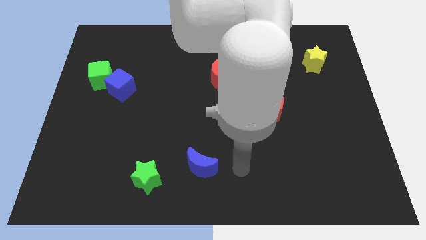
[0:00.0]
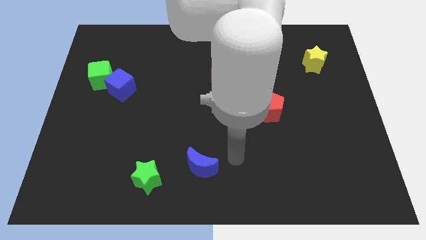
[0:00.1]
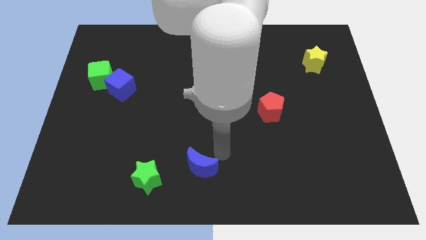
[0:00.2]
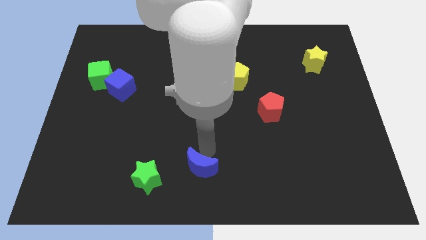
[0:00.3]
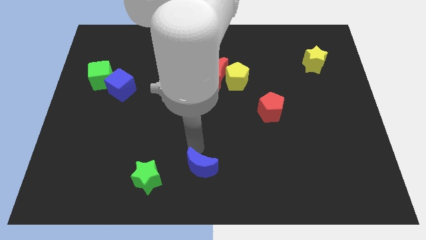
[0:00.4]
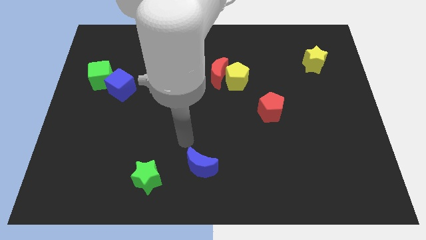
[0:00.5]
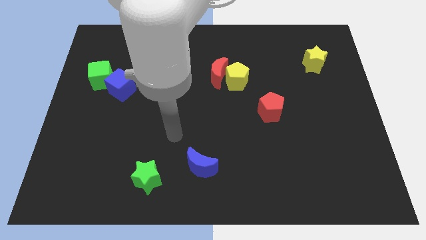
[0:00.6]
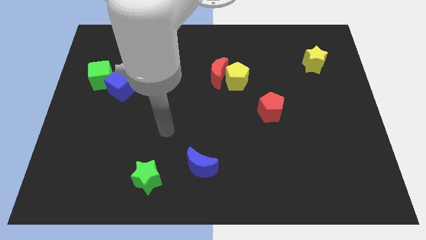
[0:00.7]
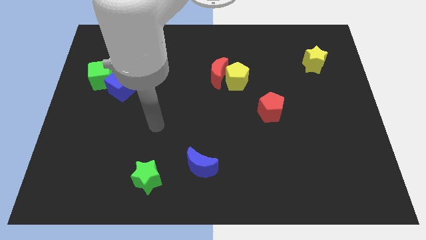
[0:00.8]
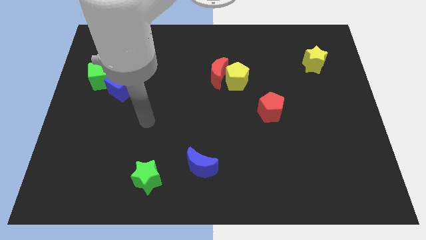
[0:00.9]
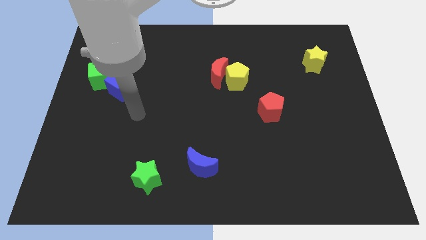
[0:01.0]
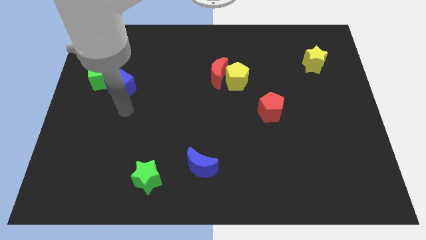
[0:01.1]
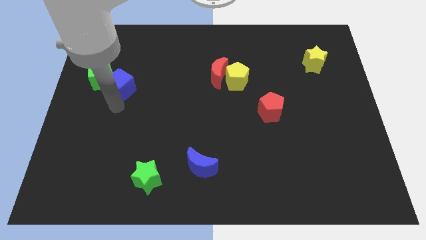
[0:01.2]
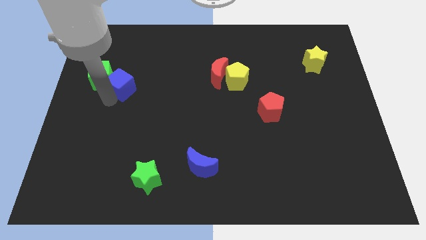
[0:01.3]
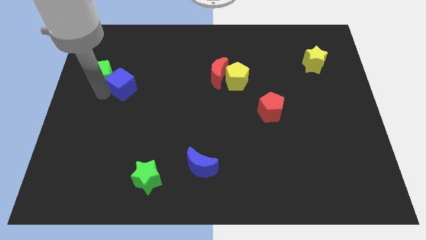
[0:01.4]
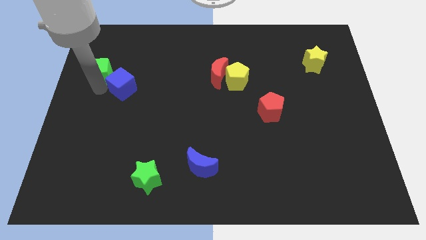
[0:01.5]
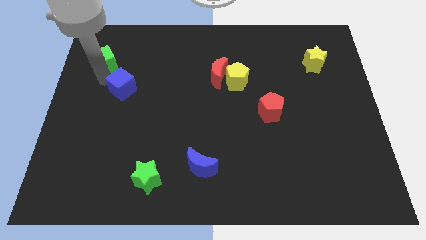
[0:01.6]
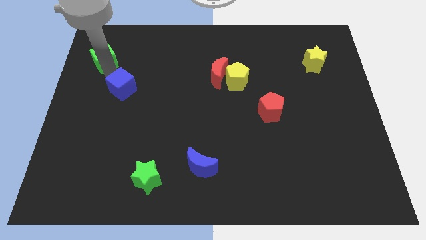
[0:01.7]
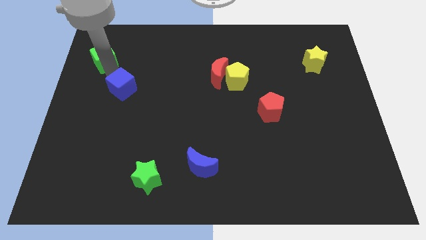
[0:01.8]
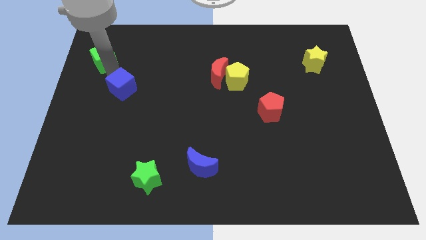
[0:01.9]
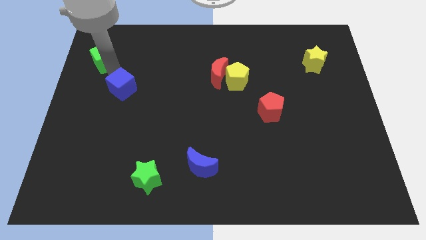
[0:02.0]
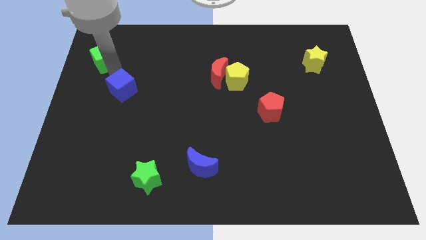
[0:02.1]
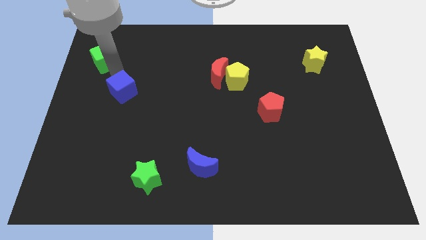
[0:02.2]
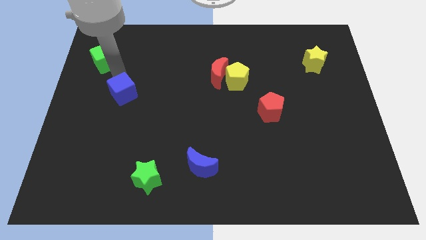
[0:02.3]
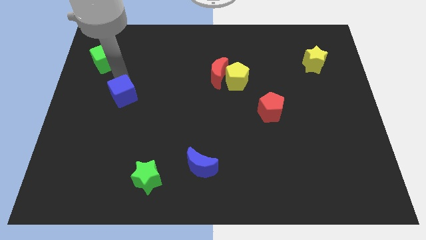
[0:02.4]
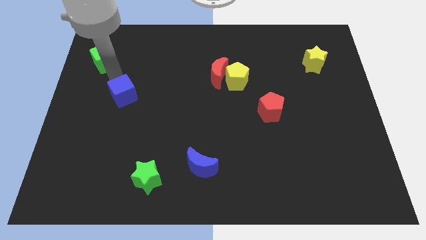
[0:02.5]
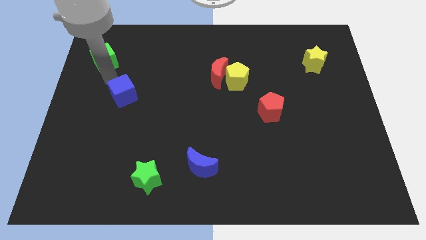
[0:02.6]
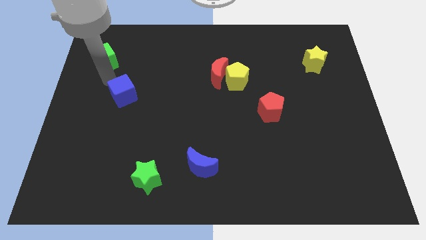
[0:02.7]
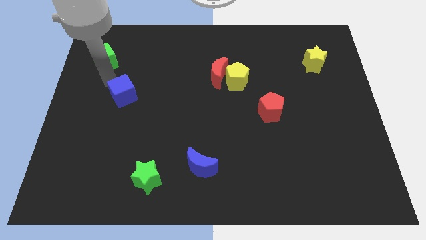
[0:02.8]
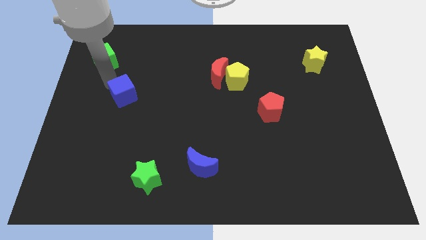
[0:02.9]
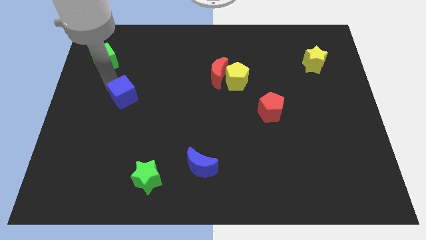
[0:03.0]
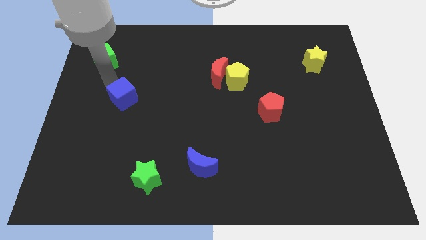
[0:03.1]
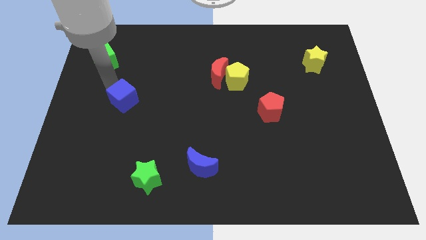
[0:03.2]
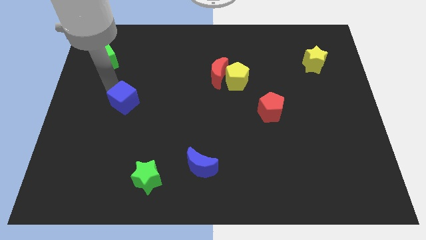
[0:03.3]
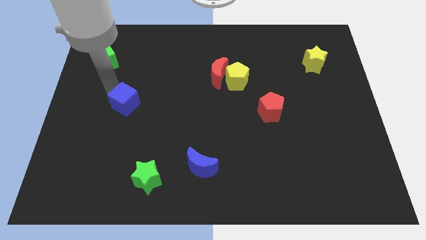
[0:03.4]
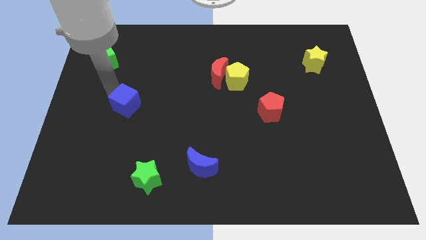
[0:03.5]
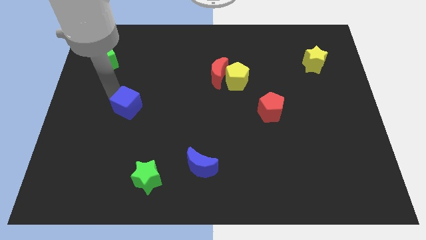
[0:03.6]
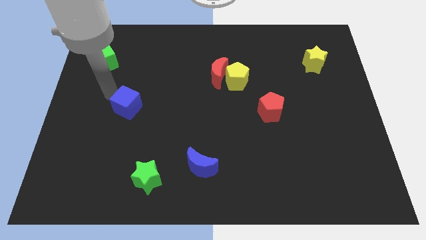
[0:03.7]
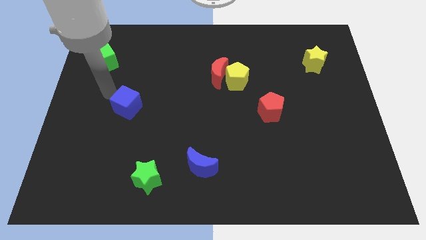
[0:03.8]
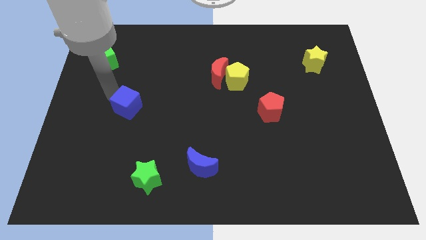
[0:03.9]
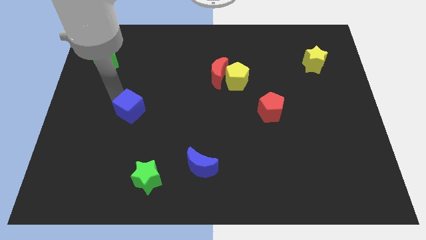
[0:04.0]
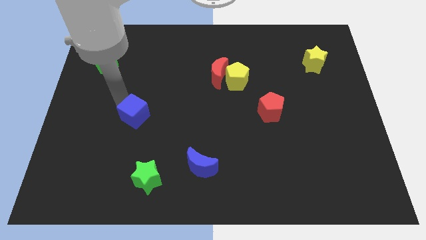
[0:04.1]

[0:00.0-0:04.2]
push the blue cube down and right diagonally a little bit

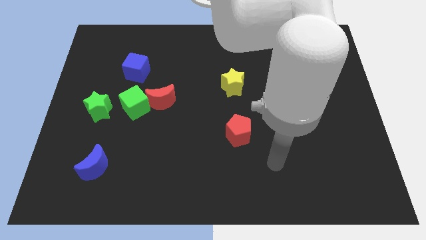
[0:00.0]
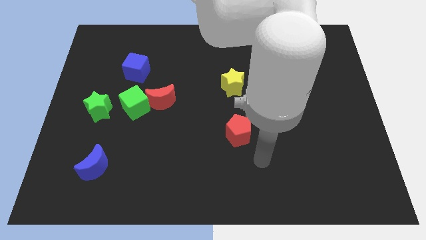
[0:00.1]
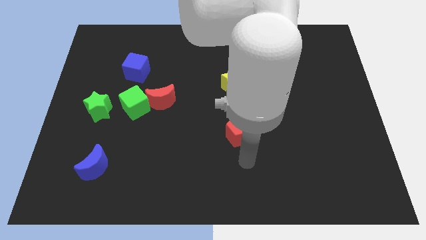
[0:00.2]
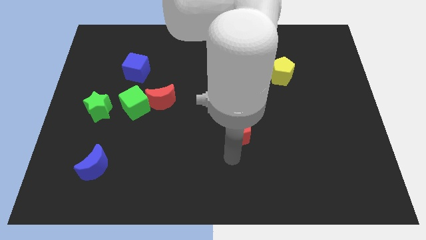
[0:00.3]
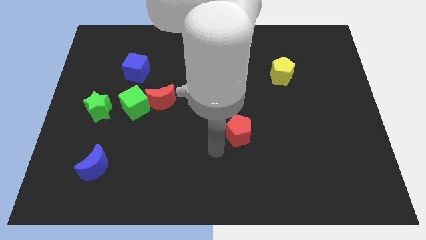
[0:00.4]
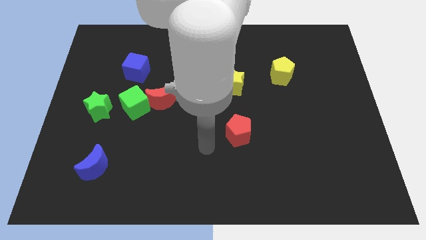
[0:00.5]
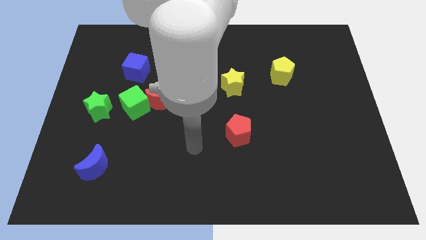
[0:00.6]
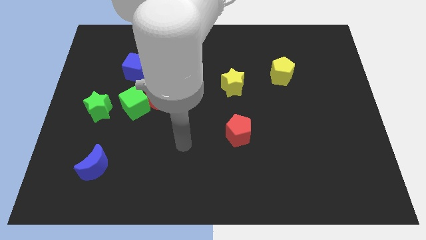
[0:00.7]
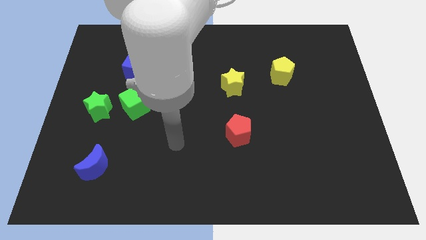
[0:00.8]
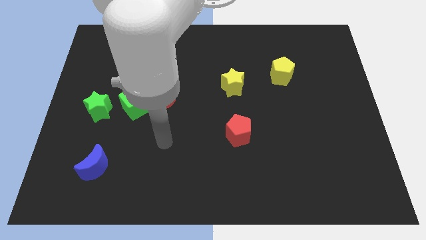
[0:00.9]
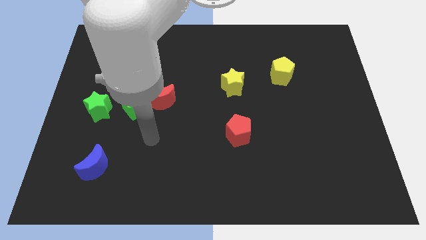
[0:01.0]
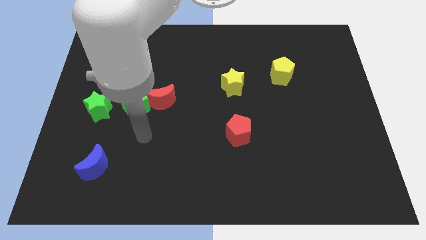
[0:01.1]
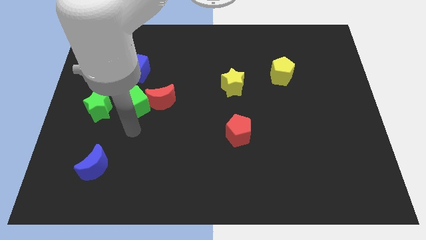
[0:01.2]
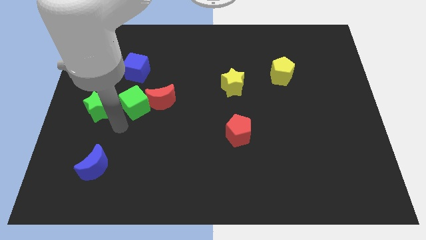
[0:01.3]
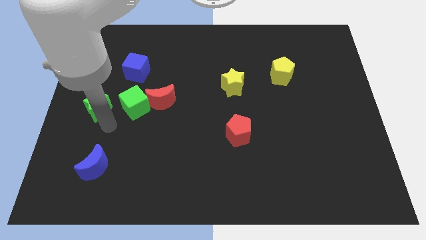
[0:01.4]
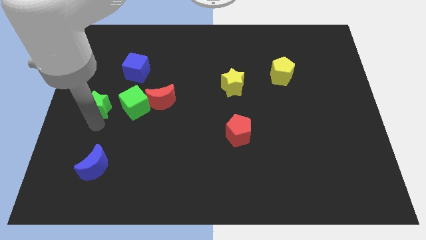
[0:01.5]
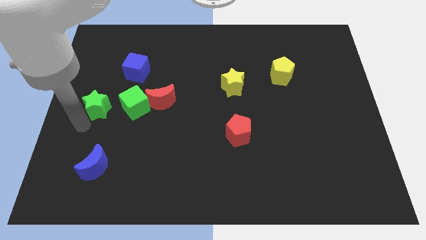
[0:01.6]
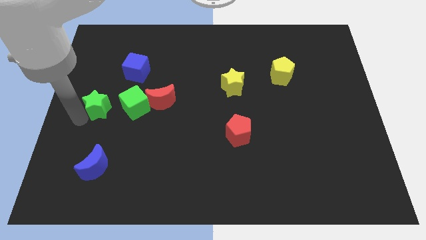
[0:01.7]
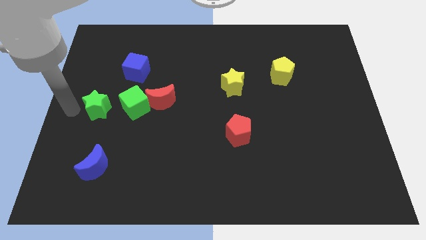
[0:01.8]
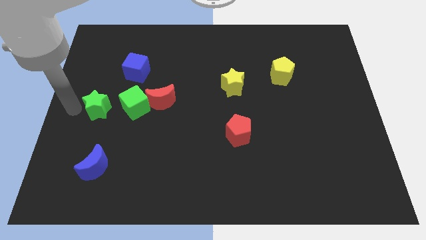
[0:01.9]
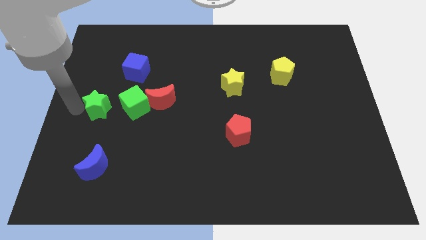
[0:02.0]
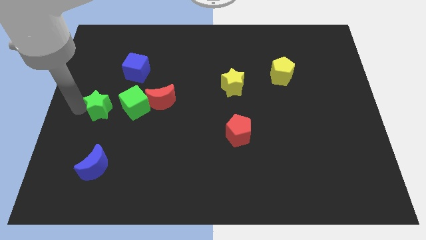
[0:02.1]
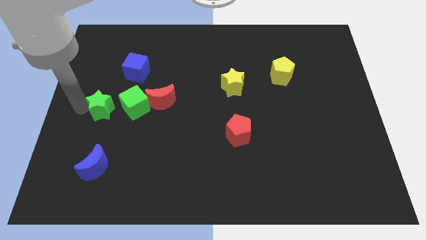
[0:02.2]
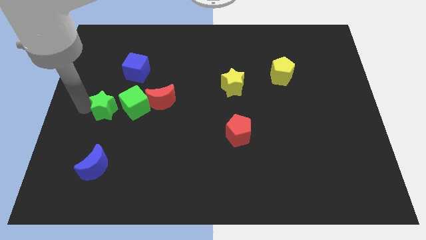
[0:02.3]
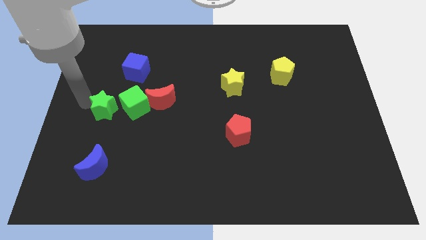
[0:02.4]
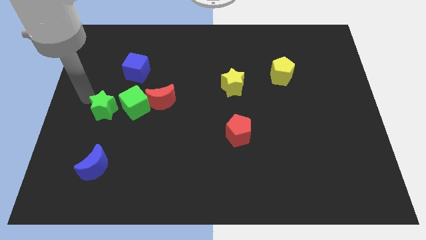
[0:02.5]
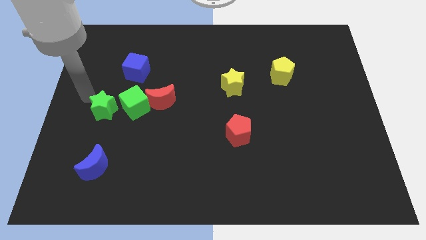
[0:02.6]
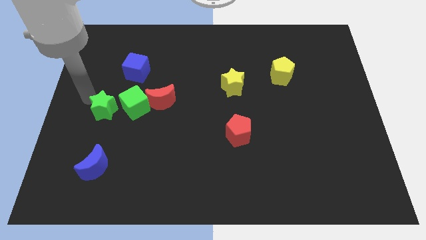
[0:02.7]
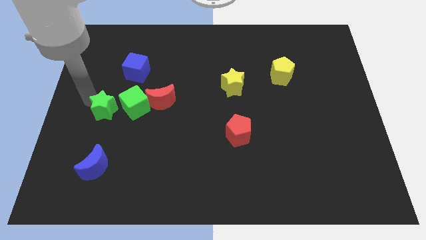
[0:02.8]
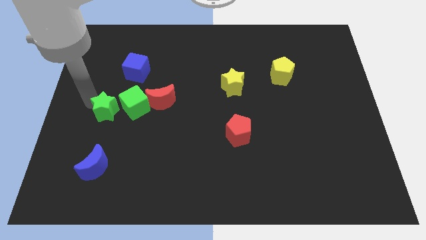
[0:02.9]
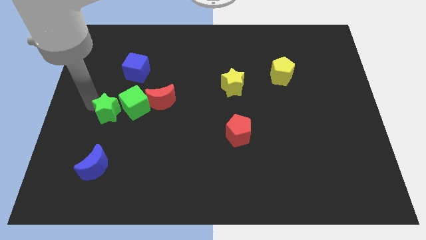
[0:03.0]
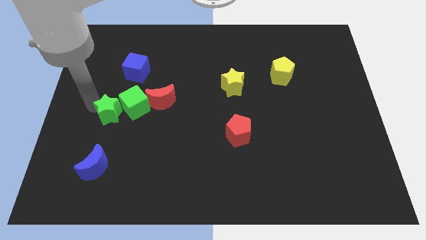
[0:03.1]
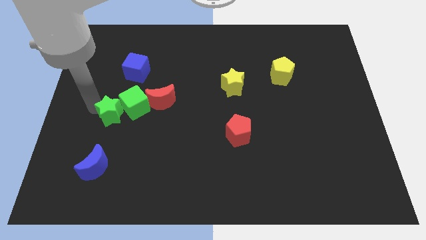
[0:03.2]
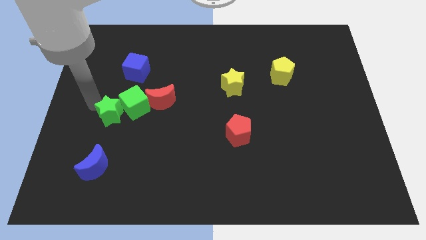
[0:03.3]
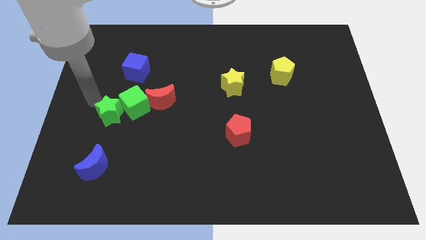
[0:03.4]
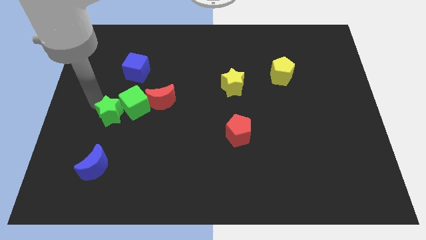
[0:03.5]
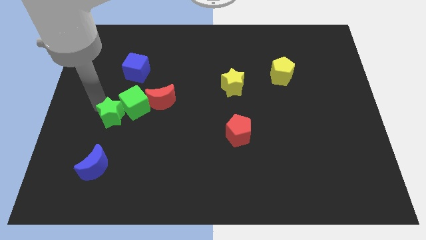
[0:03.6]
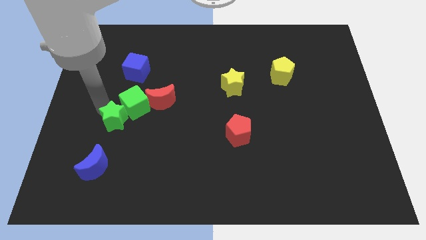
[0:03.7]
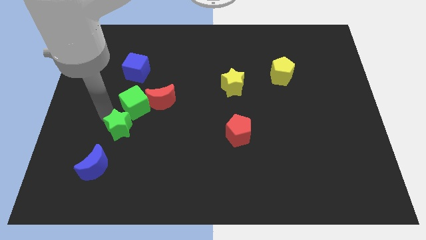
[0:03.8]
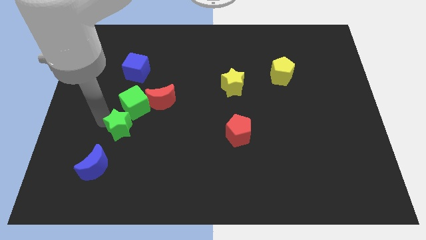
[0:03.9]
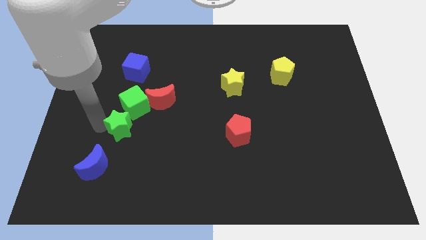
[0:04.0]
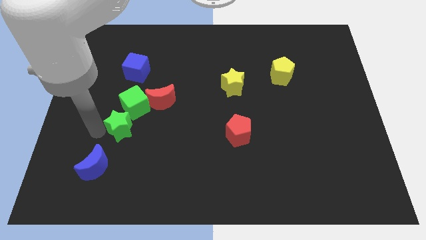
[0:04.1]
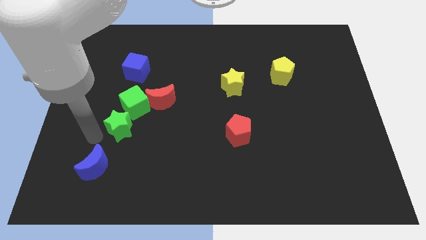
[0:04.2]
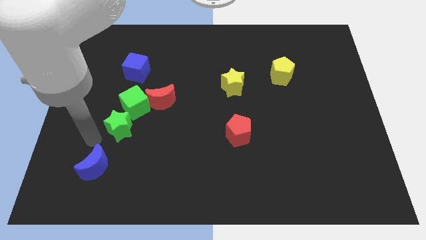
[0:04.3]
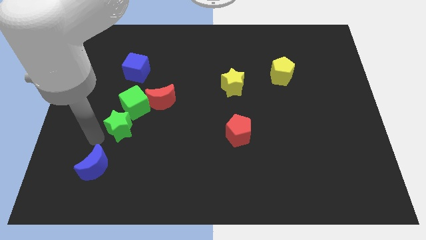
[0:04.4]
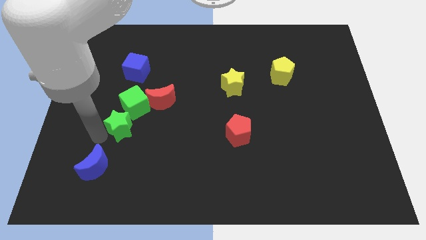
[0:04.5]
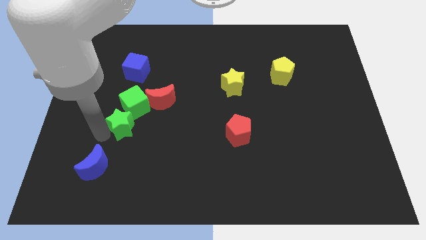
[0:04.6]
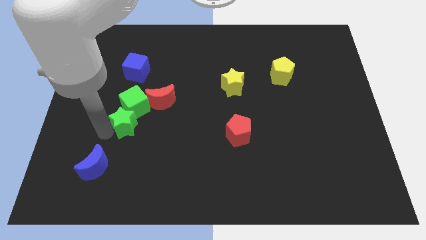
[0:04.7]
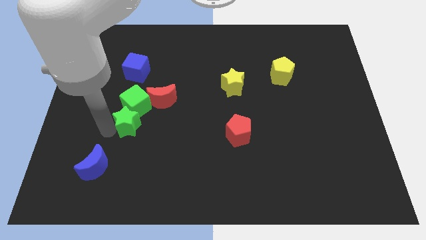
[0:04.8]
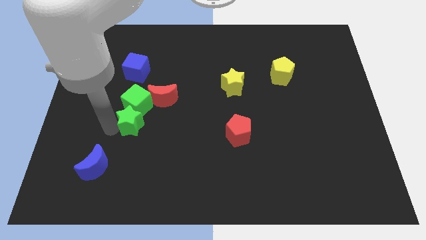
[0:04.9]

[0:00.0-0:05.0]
slightly slide the green star to the right
